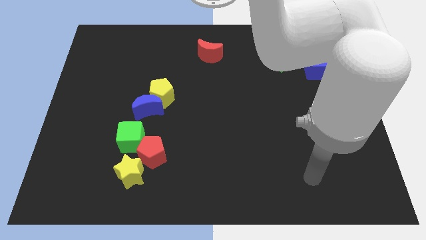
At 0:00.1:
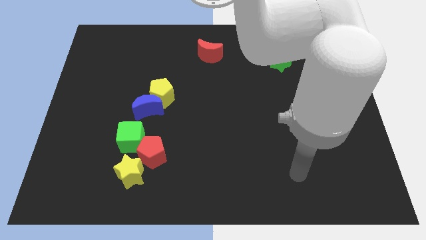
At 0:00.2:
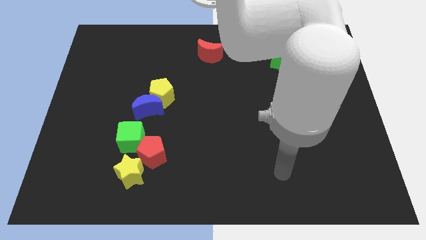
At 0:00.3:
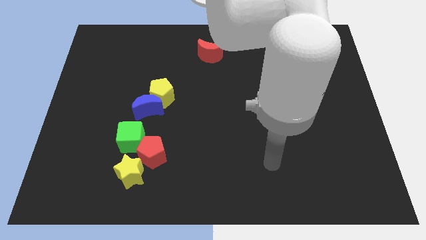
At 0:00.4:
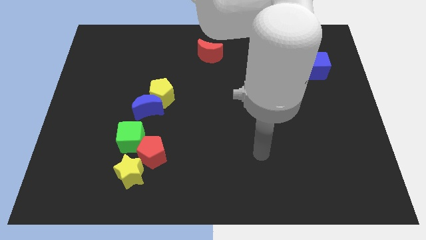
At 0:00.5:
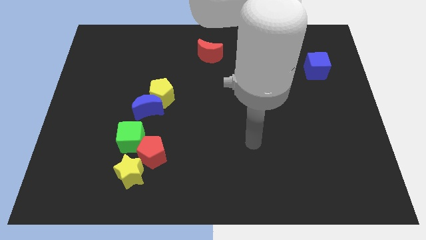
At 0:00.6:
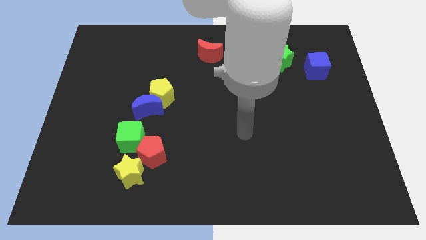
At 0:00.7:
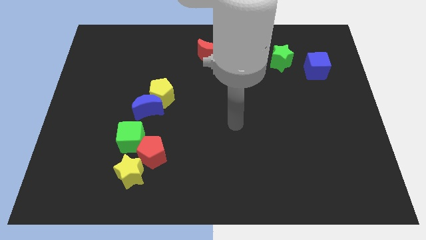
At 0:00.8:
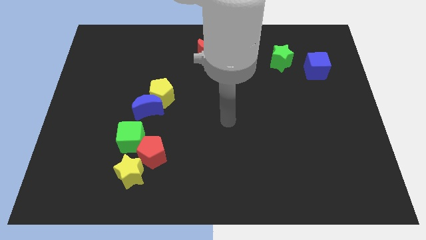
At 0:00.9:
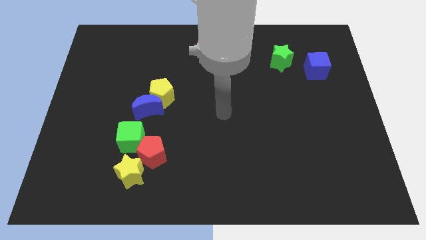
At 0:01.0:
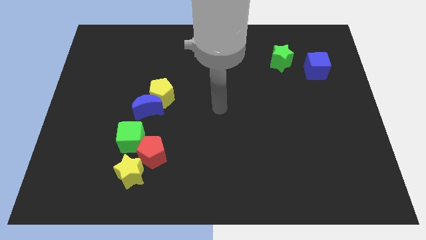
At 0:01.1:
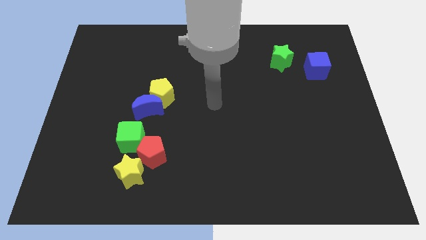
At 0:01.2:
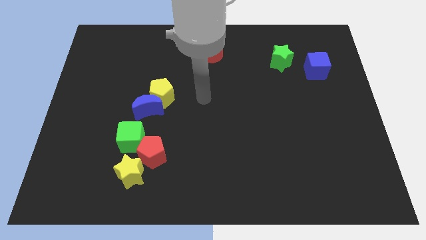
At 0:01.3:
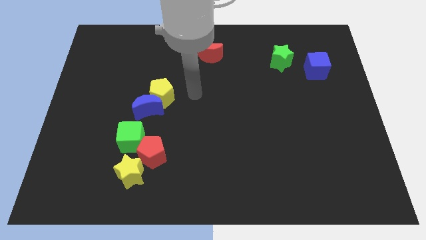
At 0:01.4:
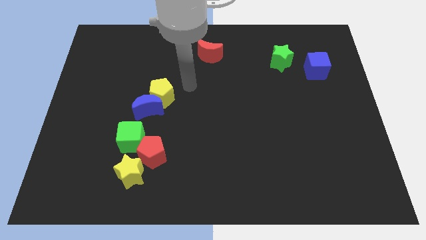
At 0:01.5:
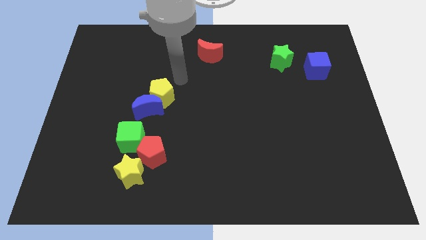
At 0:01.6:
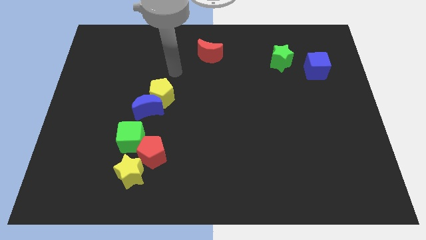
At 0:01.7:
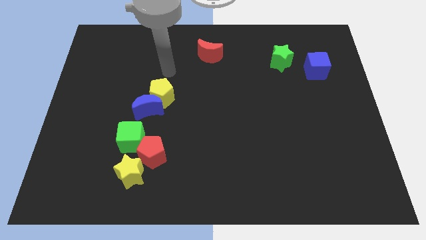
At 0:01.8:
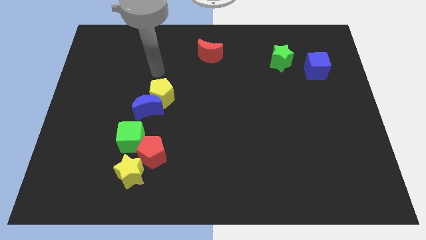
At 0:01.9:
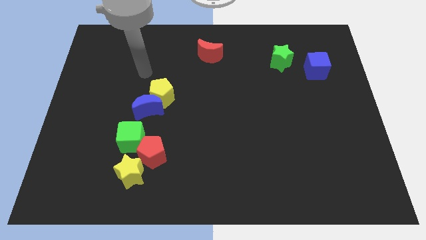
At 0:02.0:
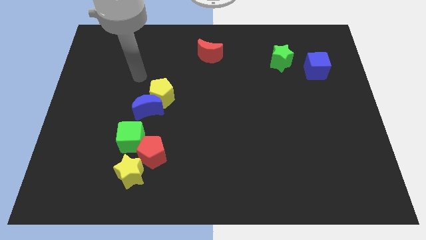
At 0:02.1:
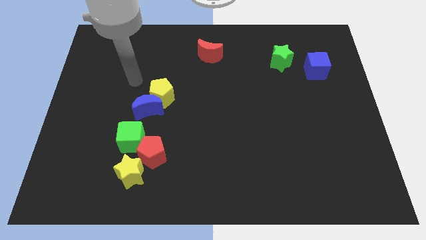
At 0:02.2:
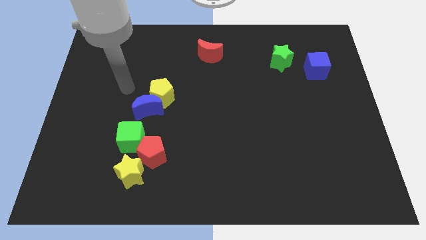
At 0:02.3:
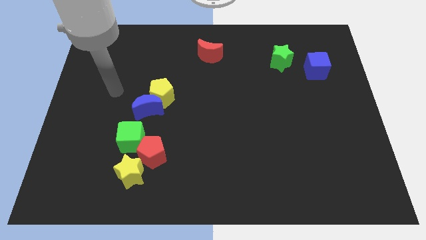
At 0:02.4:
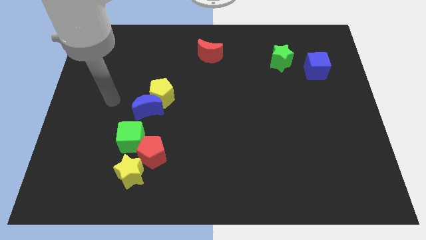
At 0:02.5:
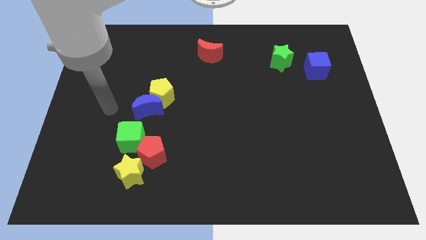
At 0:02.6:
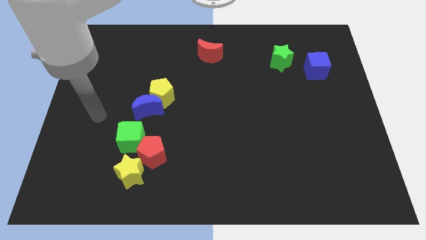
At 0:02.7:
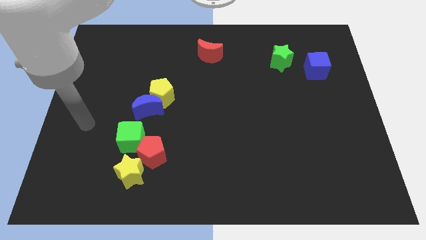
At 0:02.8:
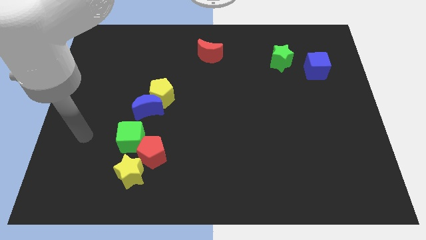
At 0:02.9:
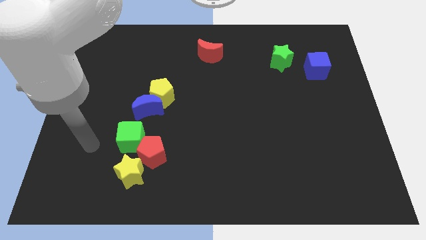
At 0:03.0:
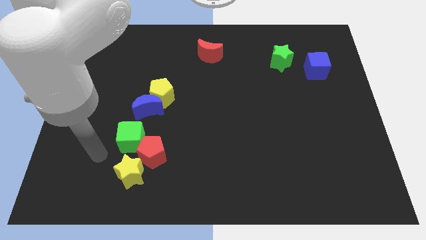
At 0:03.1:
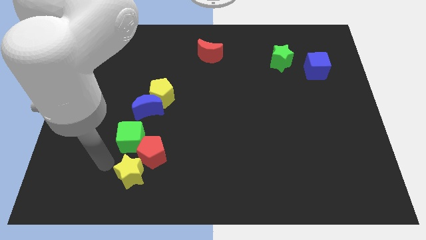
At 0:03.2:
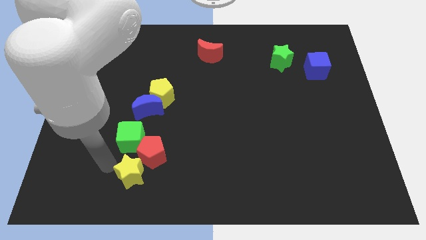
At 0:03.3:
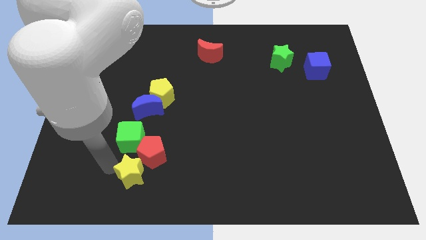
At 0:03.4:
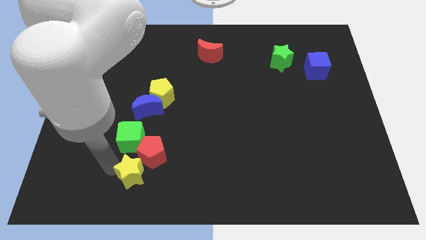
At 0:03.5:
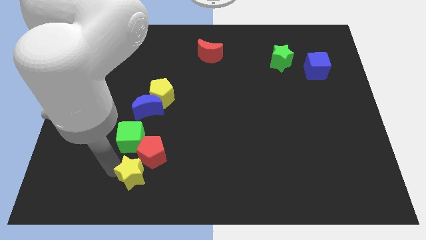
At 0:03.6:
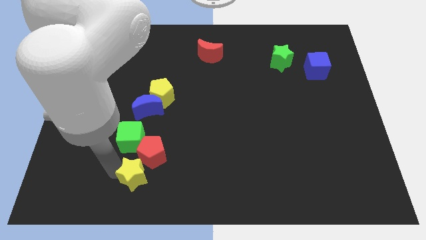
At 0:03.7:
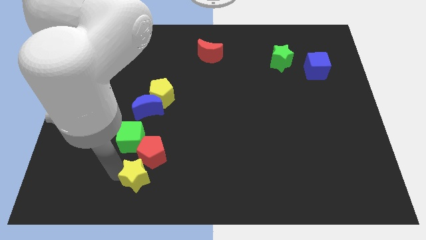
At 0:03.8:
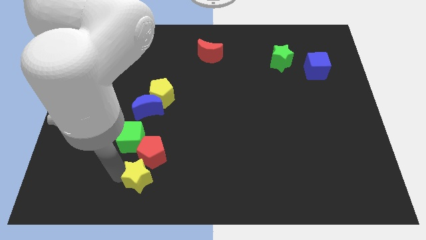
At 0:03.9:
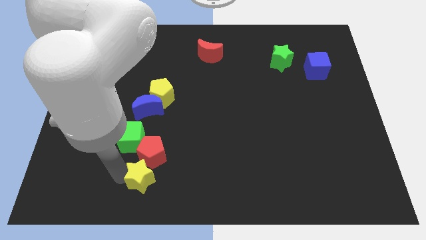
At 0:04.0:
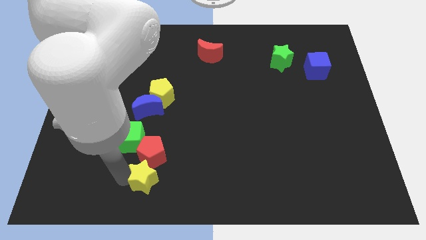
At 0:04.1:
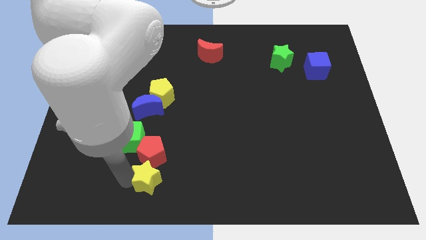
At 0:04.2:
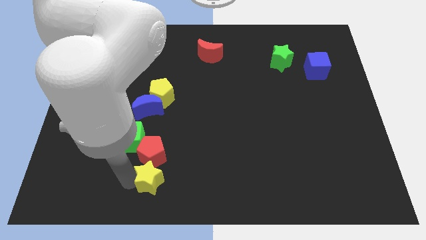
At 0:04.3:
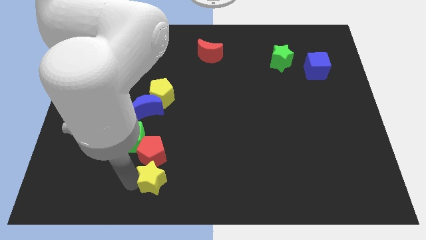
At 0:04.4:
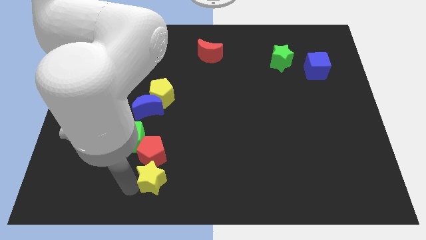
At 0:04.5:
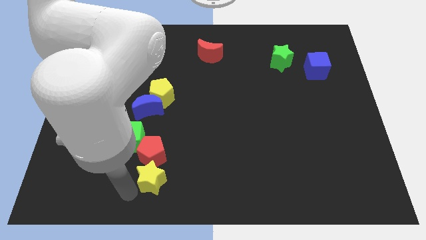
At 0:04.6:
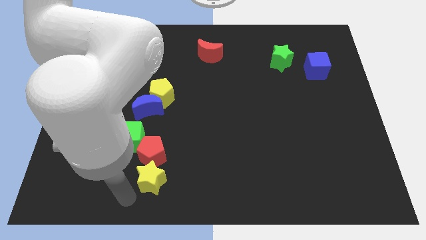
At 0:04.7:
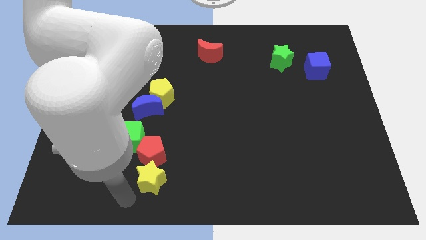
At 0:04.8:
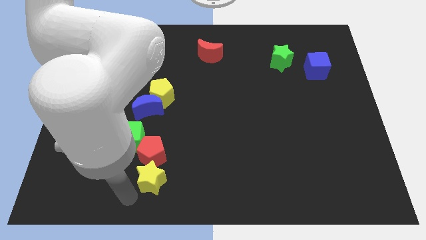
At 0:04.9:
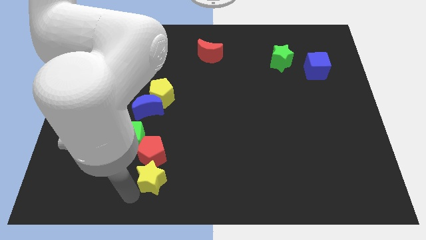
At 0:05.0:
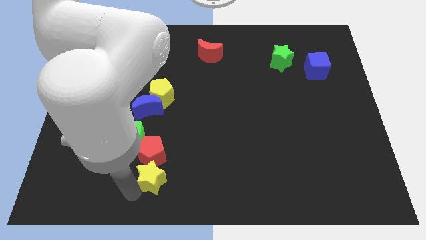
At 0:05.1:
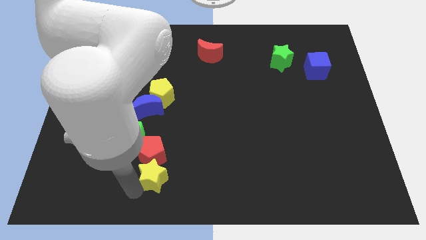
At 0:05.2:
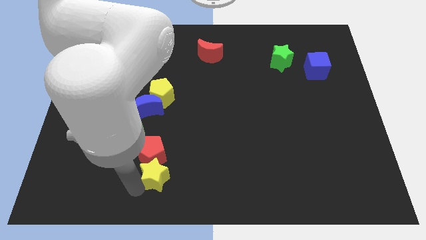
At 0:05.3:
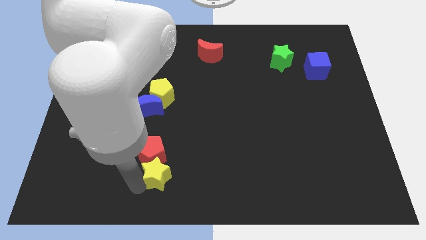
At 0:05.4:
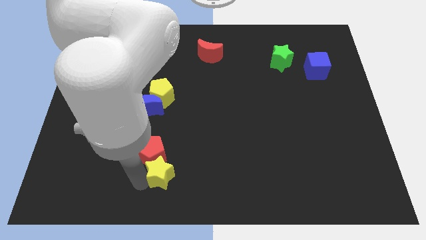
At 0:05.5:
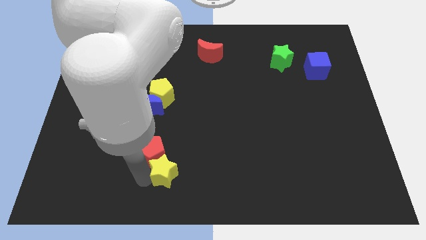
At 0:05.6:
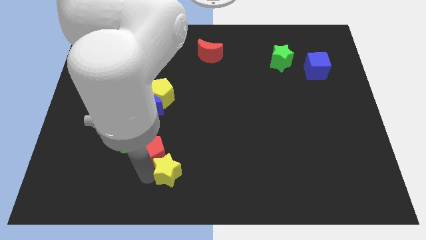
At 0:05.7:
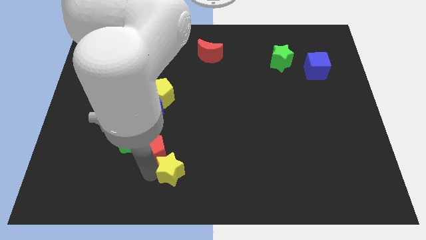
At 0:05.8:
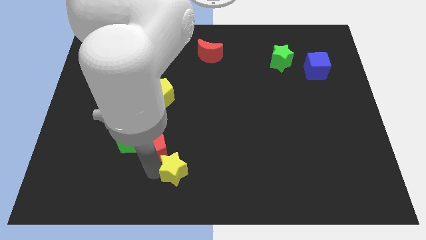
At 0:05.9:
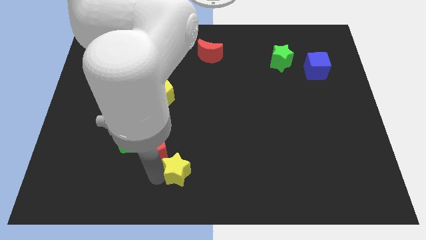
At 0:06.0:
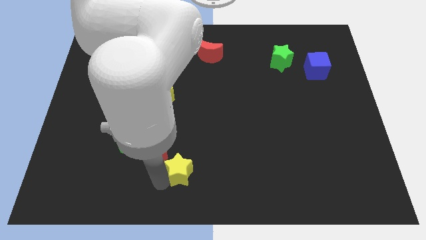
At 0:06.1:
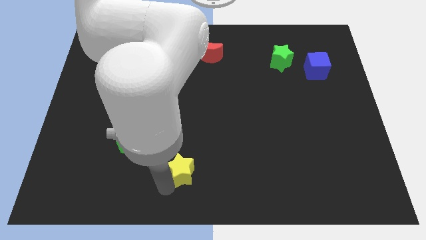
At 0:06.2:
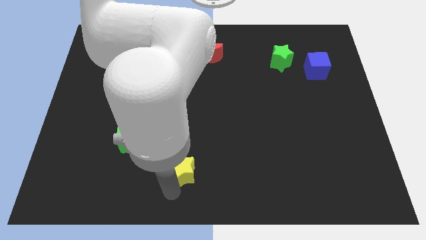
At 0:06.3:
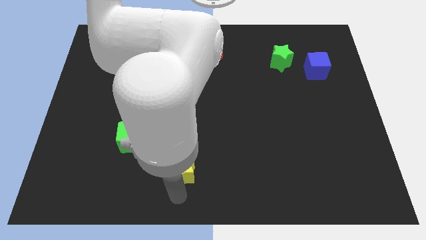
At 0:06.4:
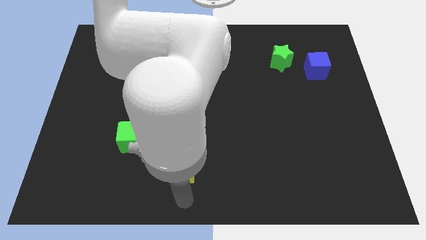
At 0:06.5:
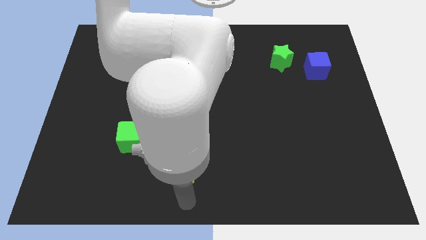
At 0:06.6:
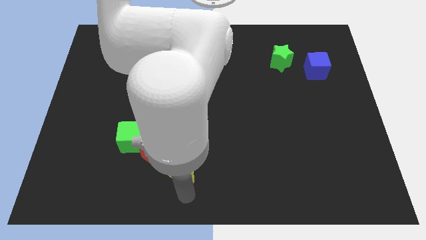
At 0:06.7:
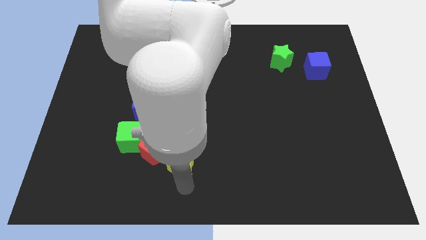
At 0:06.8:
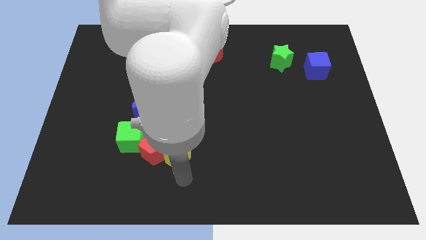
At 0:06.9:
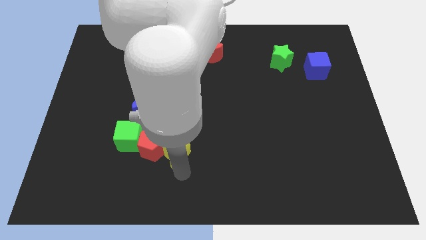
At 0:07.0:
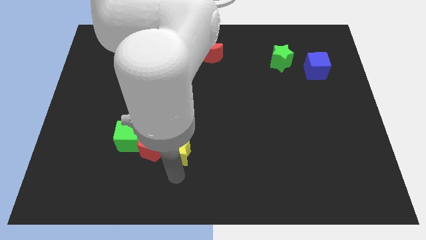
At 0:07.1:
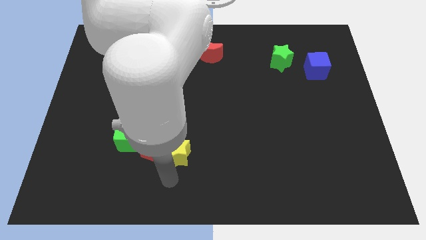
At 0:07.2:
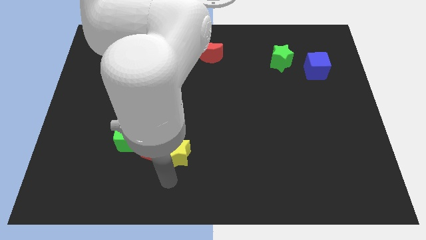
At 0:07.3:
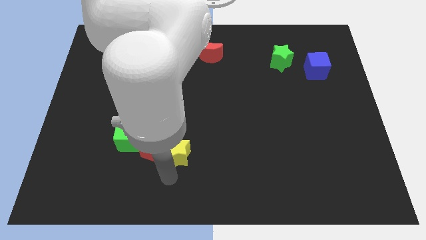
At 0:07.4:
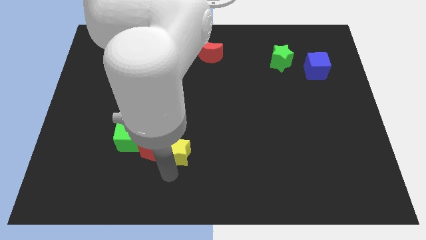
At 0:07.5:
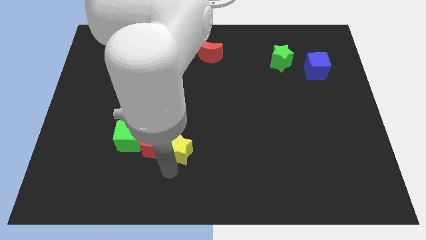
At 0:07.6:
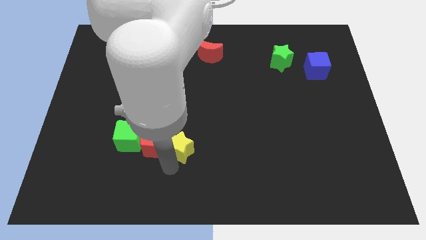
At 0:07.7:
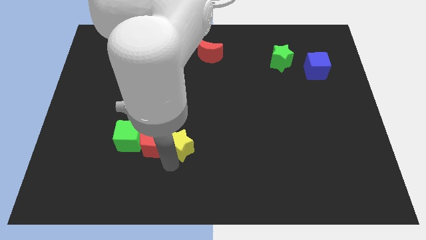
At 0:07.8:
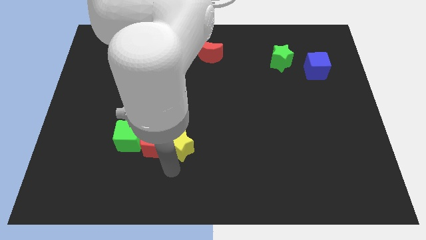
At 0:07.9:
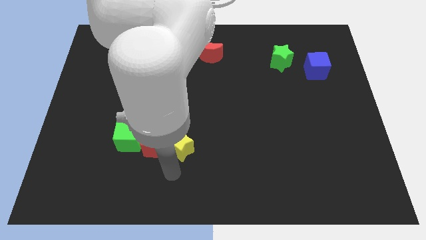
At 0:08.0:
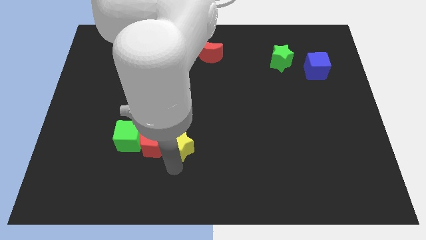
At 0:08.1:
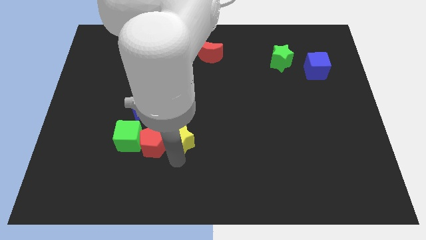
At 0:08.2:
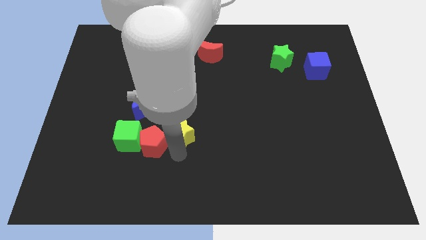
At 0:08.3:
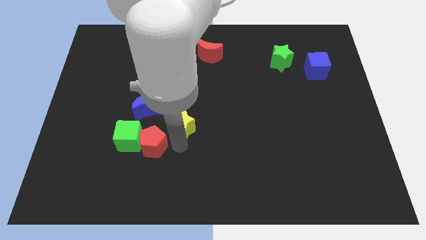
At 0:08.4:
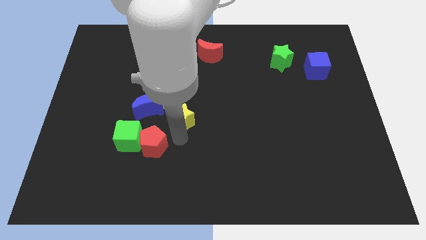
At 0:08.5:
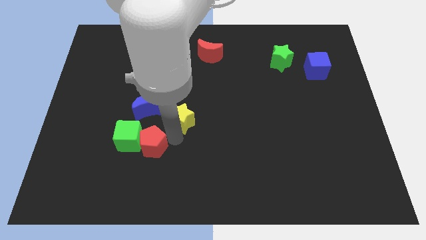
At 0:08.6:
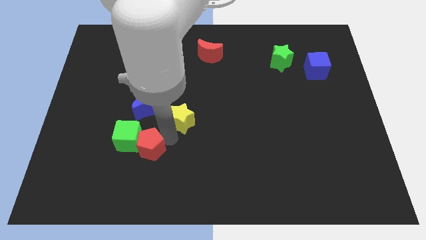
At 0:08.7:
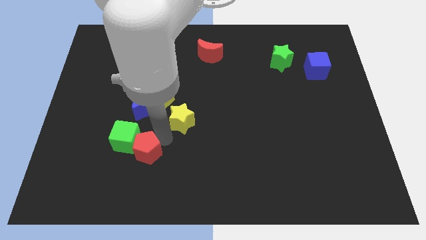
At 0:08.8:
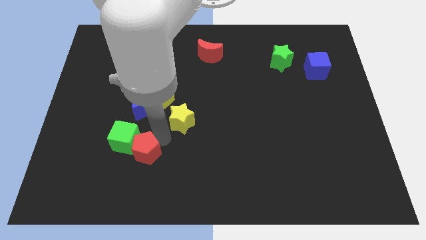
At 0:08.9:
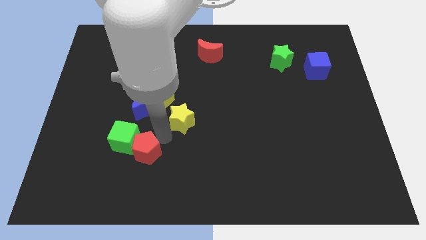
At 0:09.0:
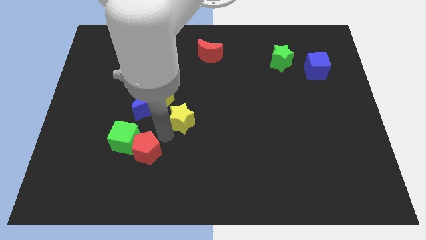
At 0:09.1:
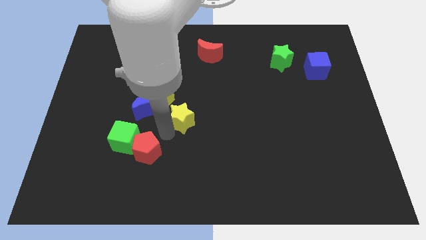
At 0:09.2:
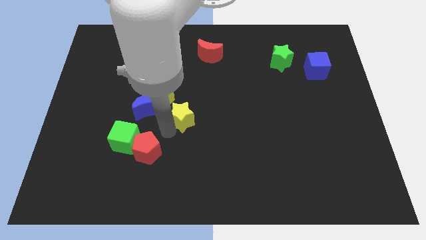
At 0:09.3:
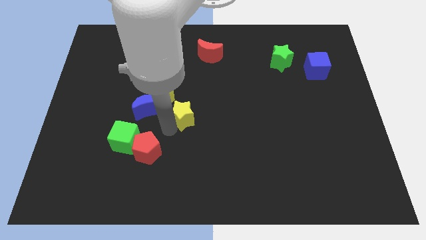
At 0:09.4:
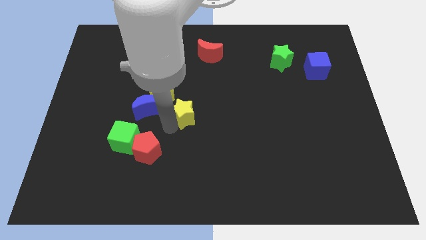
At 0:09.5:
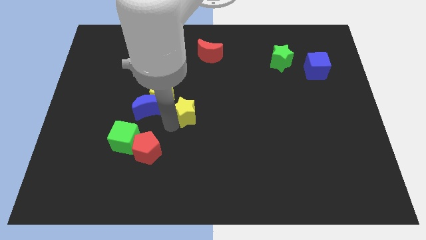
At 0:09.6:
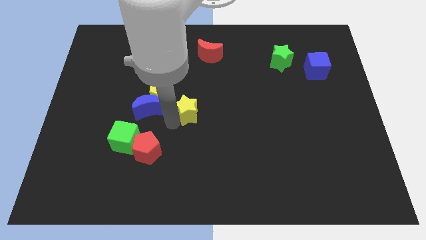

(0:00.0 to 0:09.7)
move the yellow star to the right of the yellow pentagon
